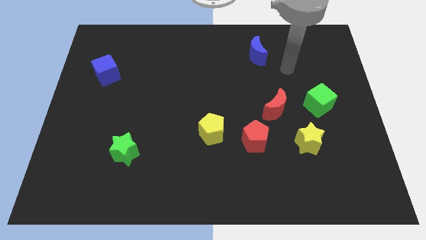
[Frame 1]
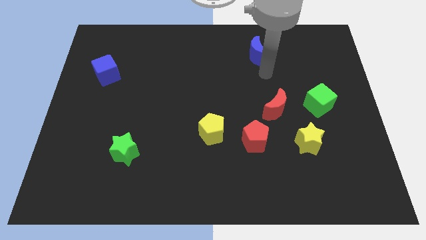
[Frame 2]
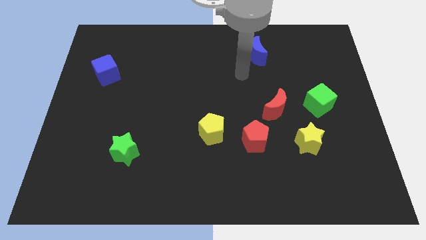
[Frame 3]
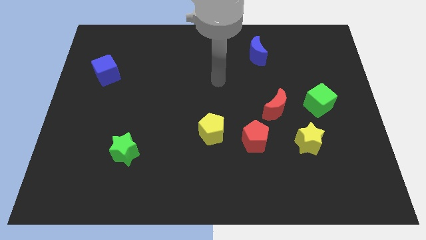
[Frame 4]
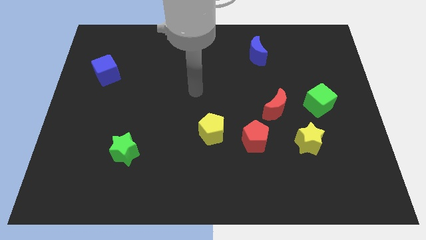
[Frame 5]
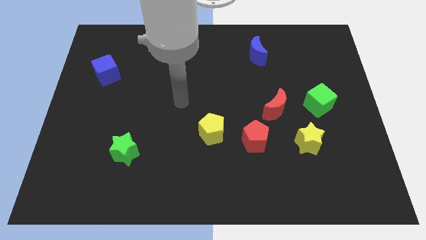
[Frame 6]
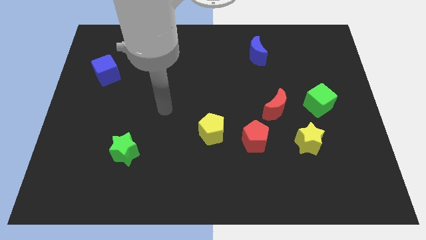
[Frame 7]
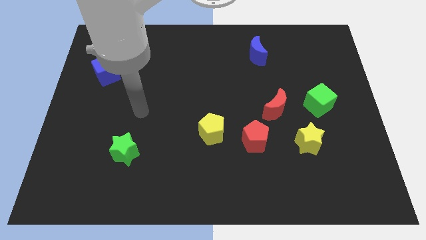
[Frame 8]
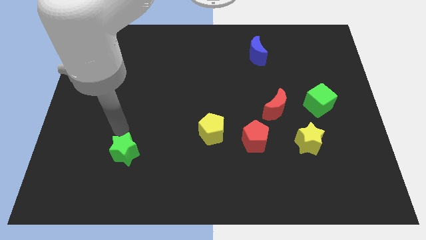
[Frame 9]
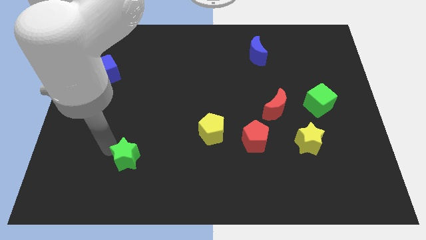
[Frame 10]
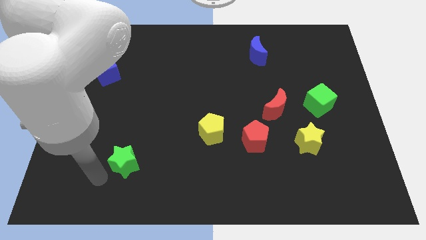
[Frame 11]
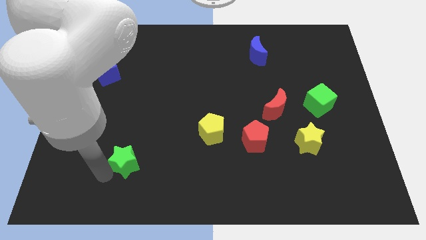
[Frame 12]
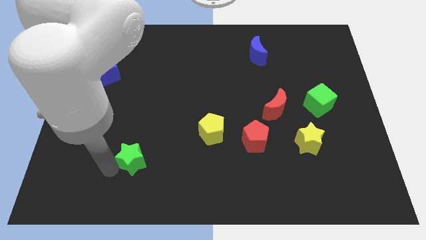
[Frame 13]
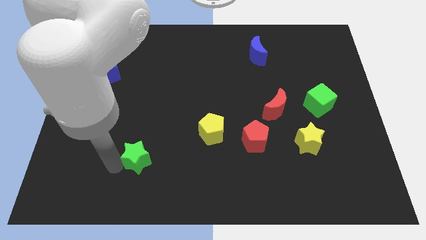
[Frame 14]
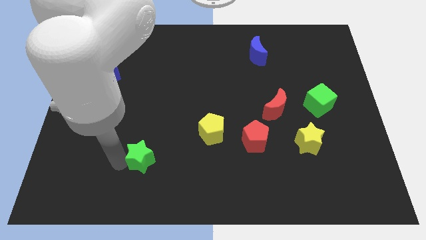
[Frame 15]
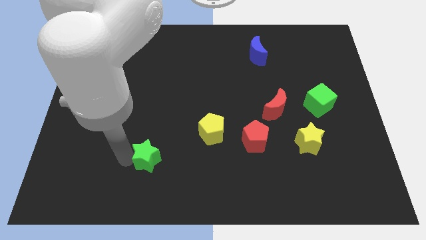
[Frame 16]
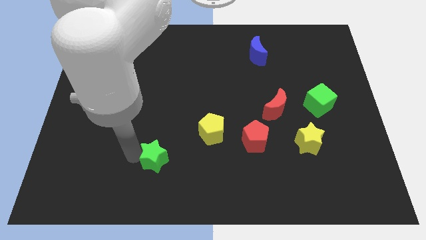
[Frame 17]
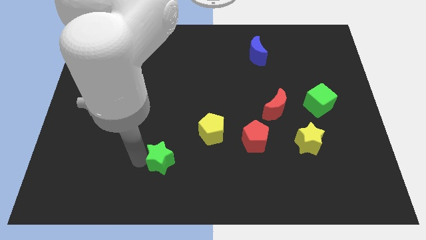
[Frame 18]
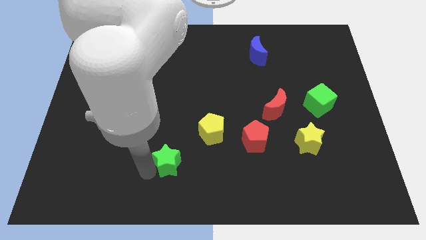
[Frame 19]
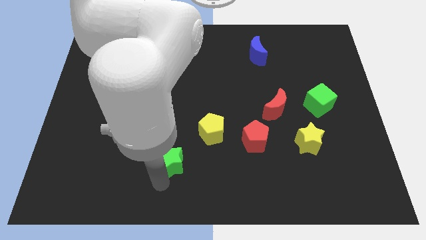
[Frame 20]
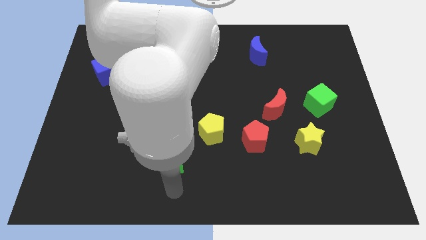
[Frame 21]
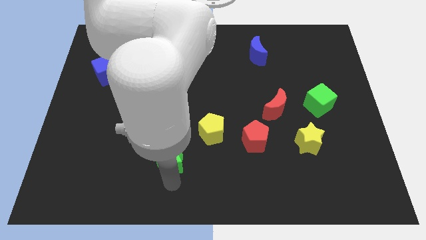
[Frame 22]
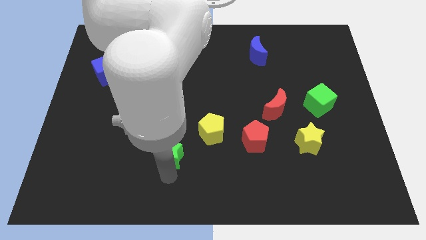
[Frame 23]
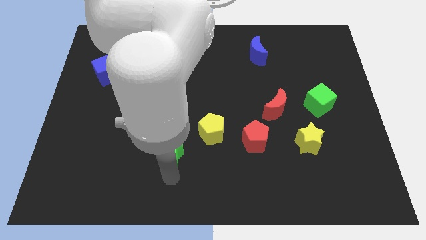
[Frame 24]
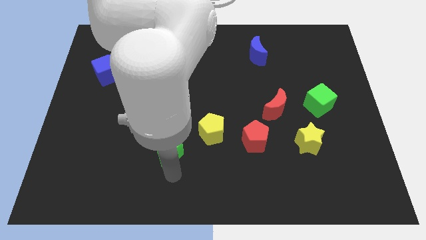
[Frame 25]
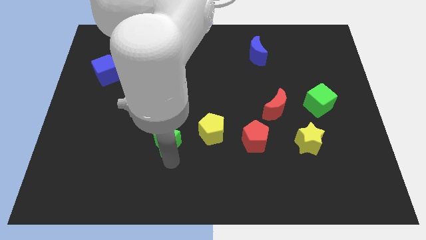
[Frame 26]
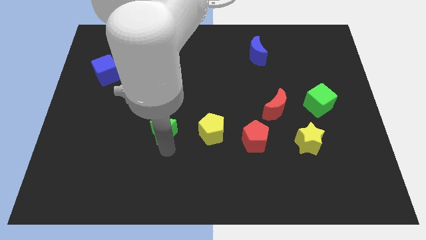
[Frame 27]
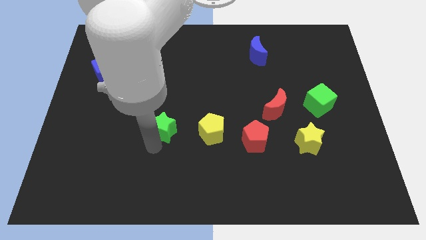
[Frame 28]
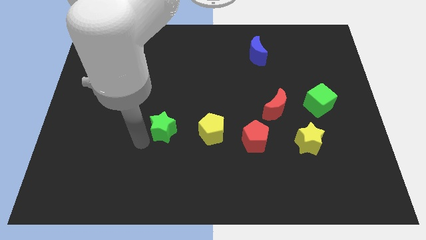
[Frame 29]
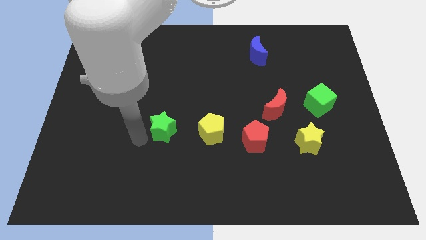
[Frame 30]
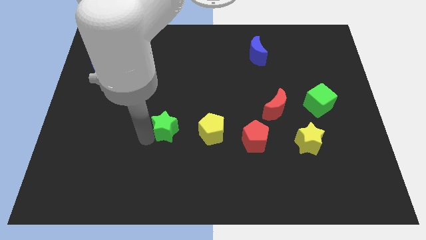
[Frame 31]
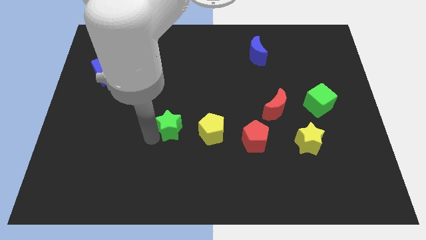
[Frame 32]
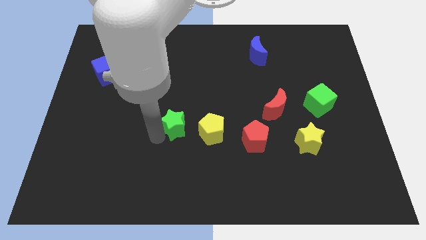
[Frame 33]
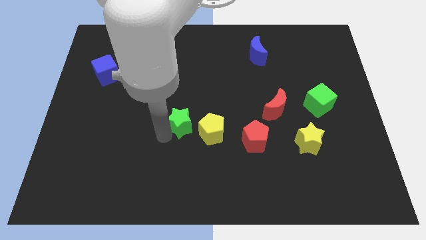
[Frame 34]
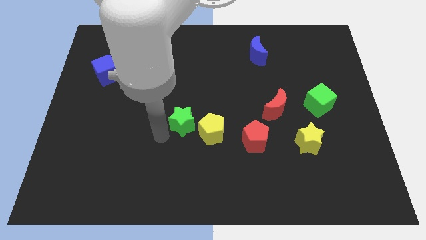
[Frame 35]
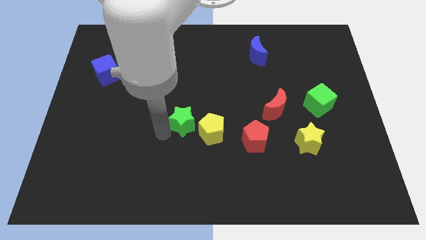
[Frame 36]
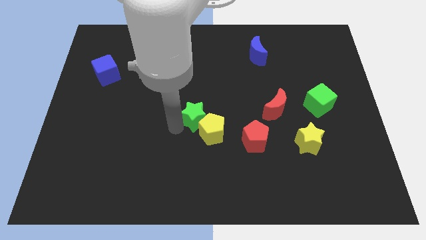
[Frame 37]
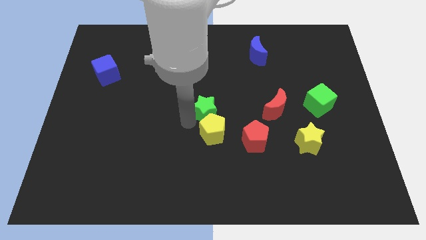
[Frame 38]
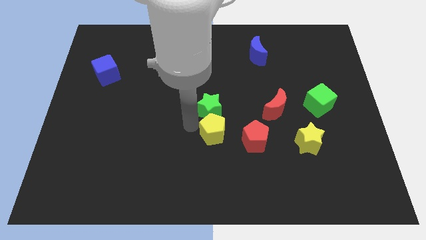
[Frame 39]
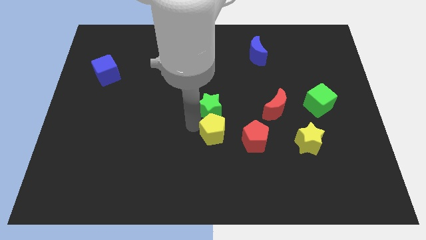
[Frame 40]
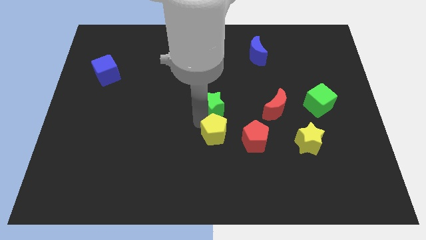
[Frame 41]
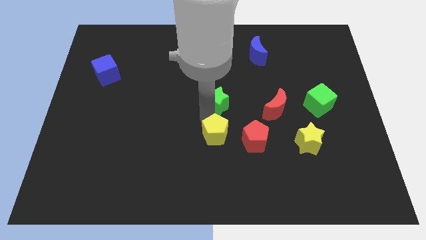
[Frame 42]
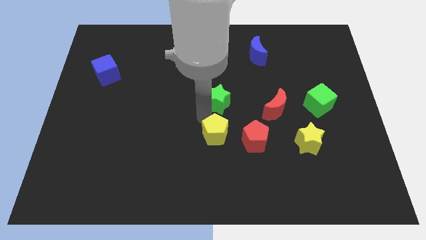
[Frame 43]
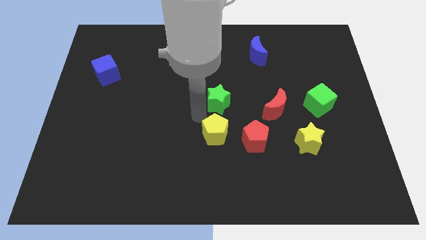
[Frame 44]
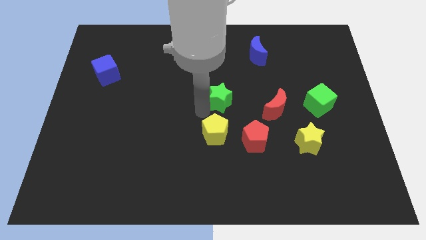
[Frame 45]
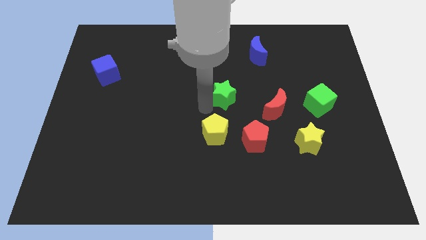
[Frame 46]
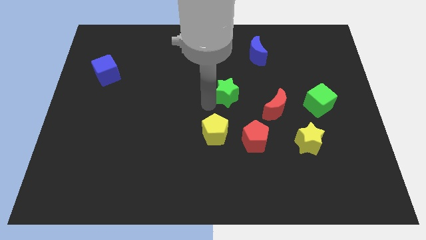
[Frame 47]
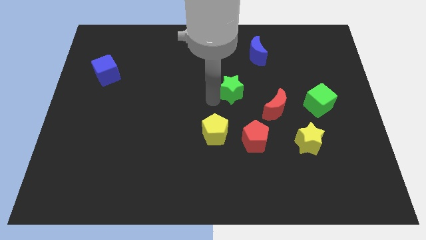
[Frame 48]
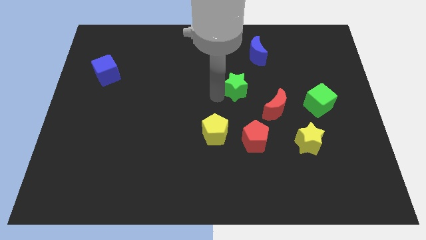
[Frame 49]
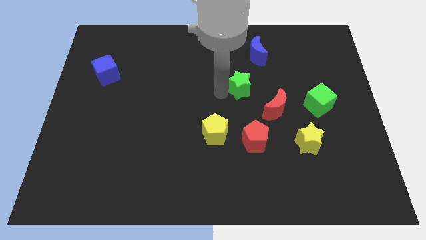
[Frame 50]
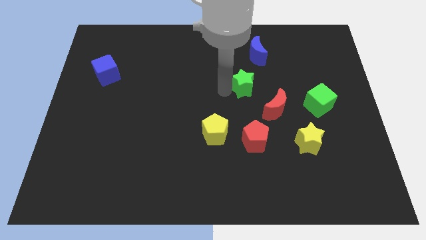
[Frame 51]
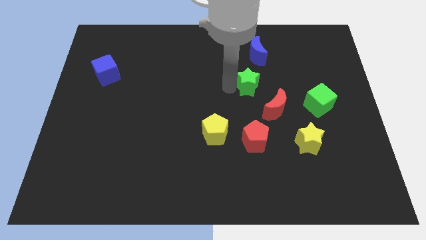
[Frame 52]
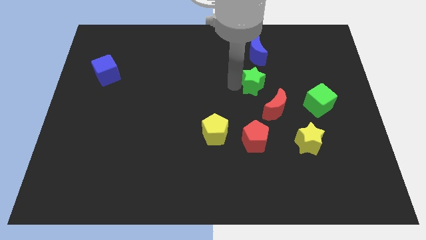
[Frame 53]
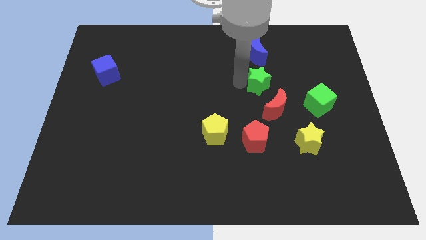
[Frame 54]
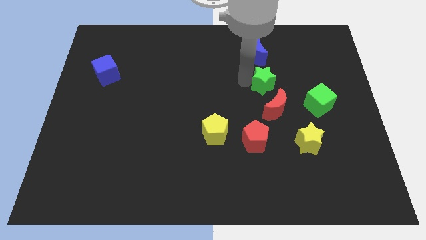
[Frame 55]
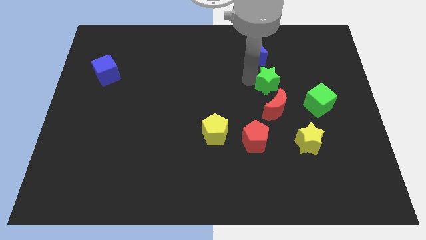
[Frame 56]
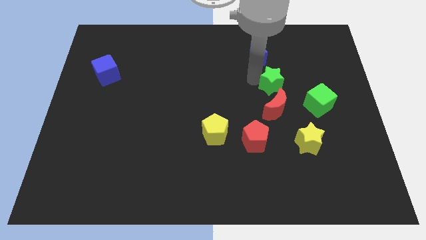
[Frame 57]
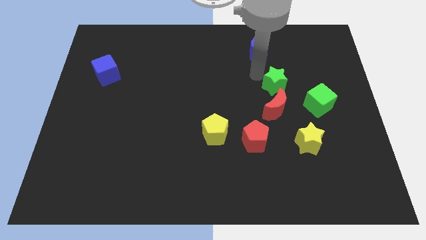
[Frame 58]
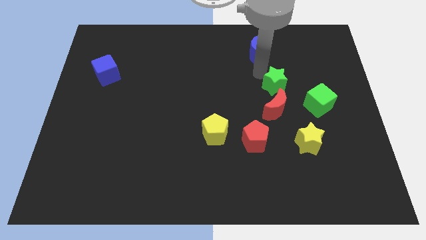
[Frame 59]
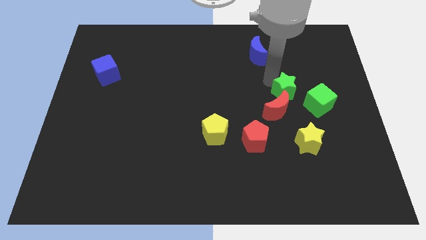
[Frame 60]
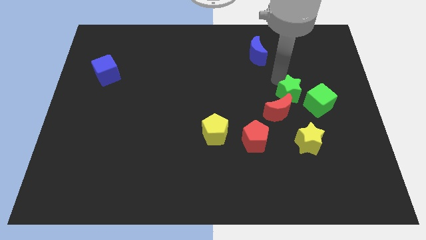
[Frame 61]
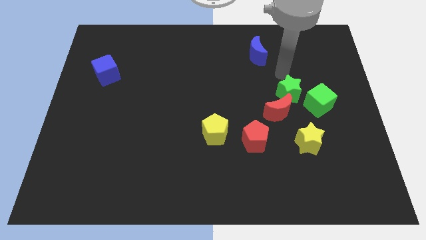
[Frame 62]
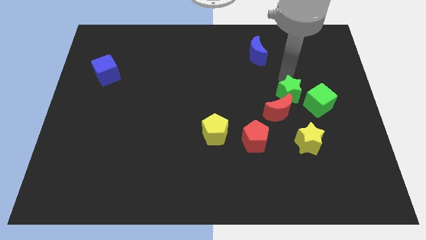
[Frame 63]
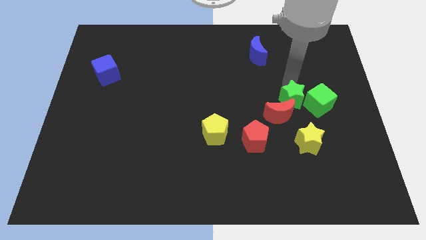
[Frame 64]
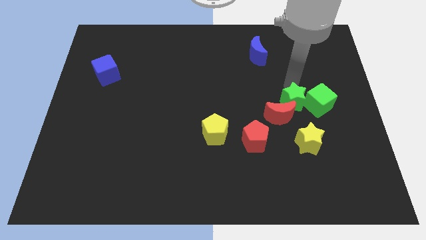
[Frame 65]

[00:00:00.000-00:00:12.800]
move the green star to the bottom left side of the green cube

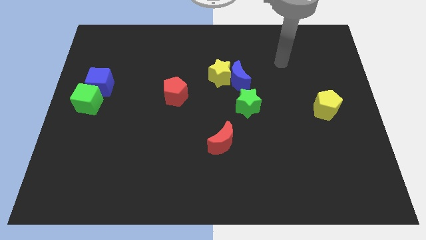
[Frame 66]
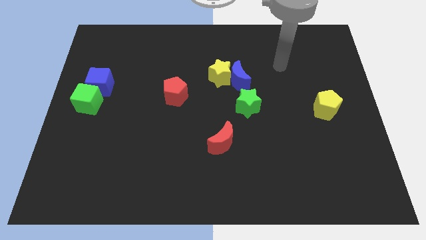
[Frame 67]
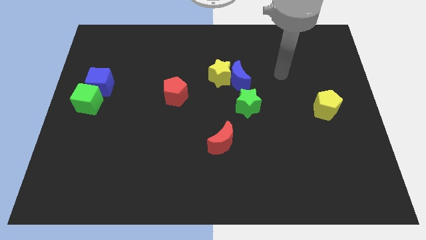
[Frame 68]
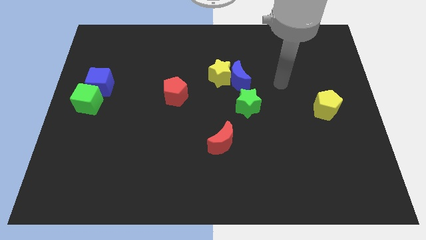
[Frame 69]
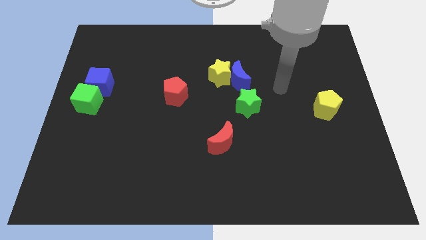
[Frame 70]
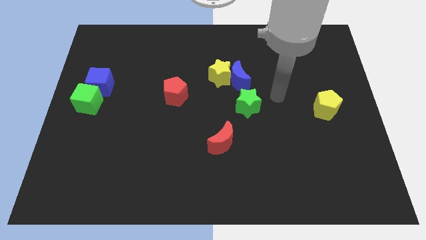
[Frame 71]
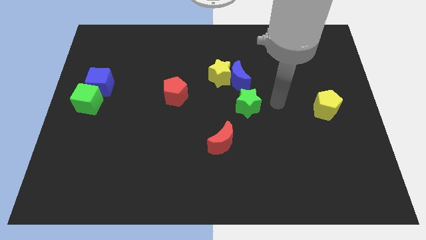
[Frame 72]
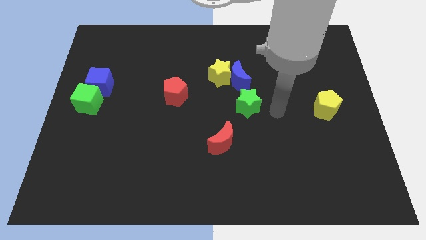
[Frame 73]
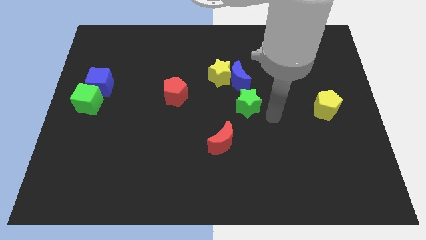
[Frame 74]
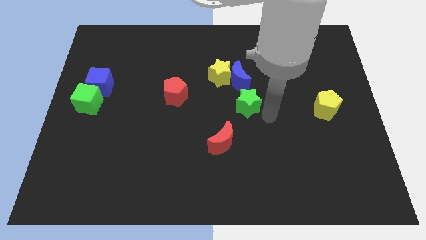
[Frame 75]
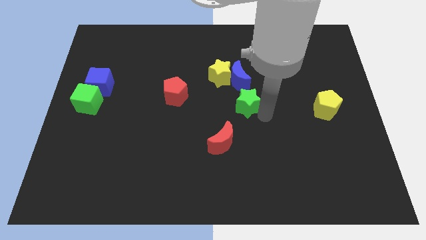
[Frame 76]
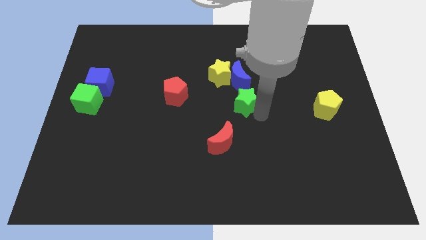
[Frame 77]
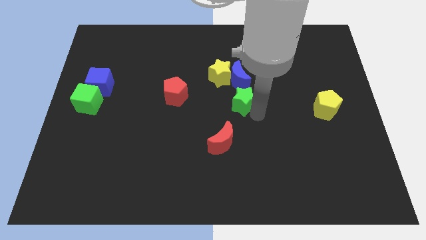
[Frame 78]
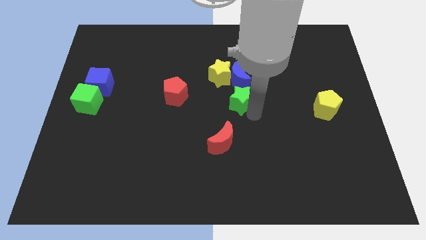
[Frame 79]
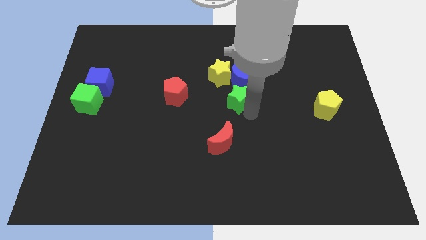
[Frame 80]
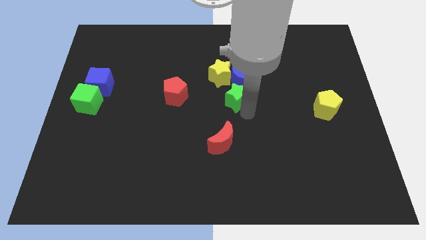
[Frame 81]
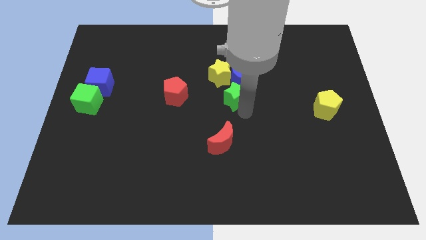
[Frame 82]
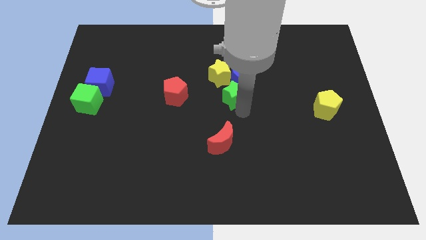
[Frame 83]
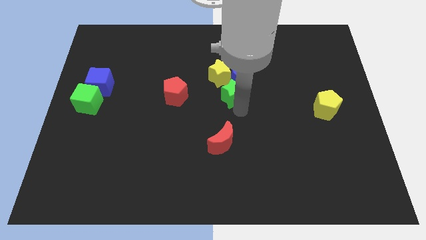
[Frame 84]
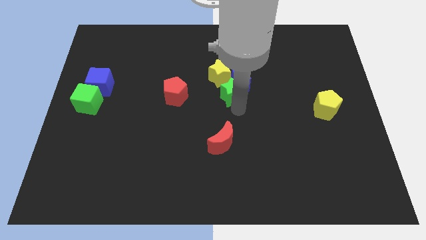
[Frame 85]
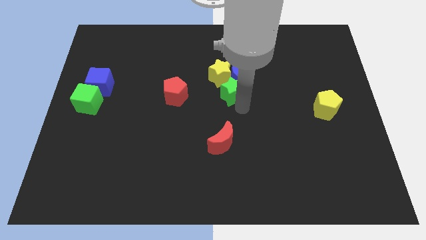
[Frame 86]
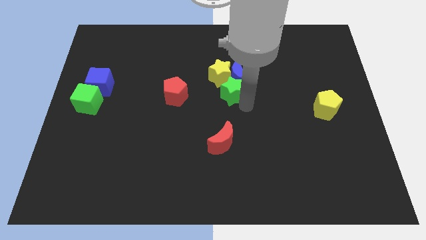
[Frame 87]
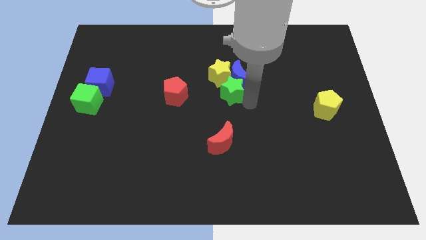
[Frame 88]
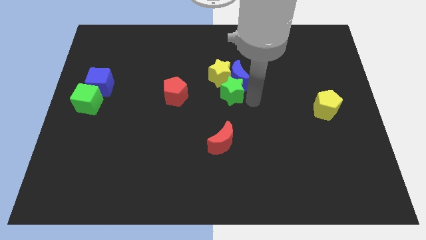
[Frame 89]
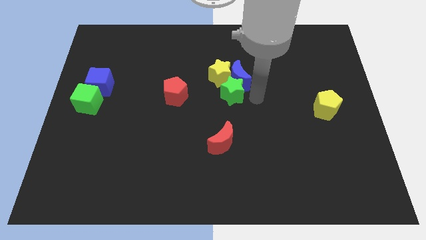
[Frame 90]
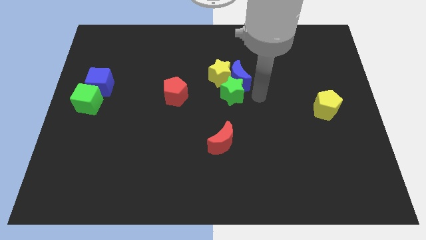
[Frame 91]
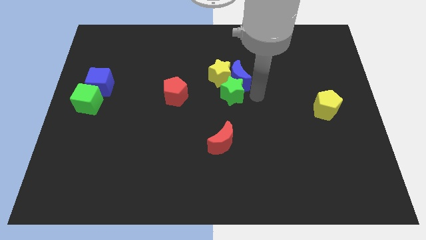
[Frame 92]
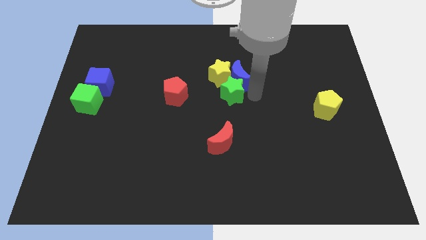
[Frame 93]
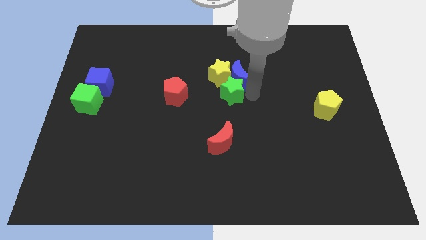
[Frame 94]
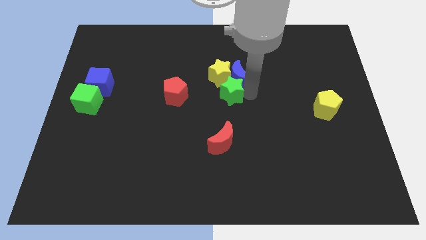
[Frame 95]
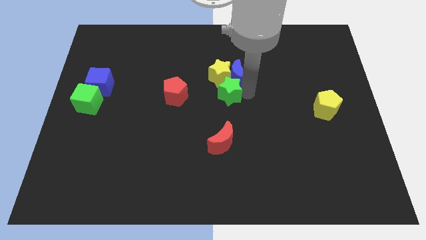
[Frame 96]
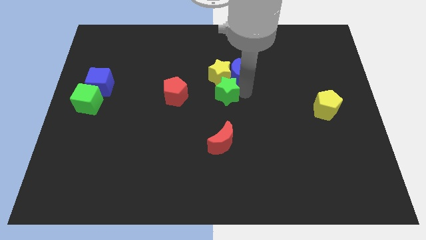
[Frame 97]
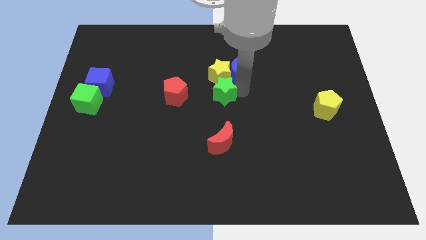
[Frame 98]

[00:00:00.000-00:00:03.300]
move the green star diagonally down and to the left of the yellow star
